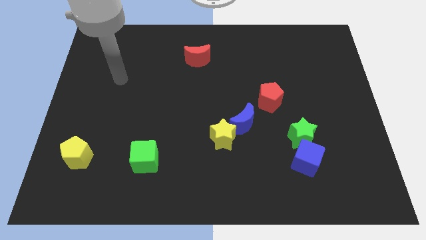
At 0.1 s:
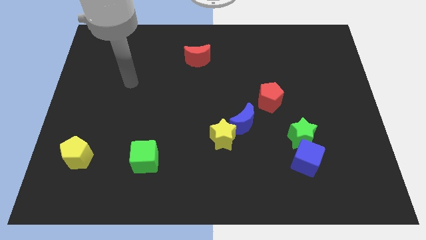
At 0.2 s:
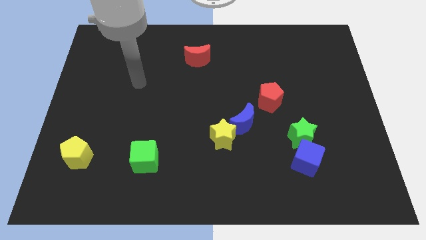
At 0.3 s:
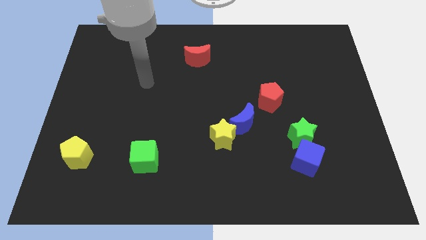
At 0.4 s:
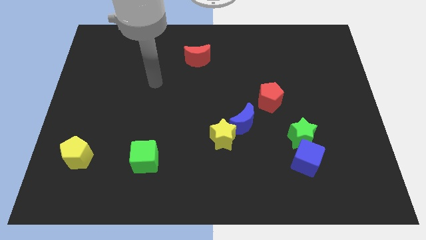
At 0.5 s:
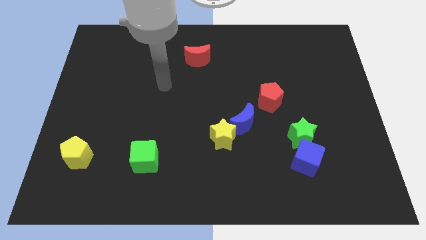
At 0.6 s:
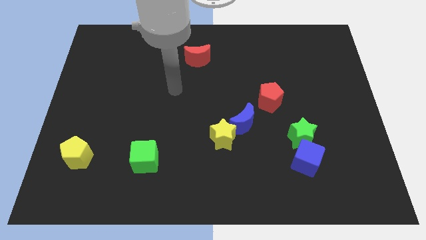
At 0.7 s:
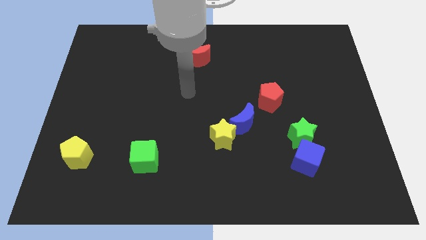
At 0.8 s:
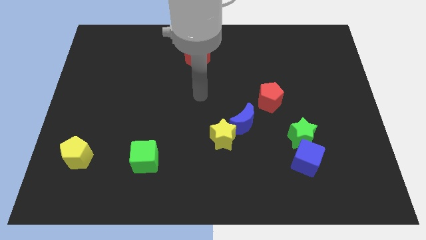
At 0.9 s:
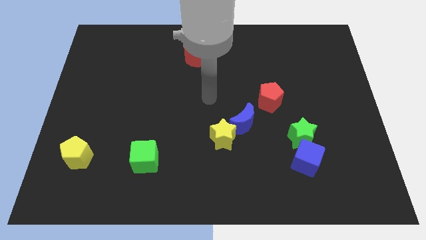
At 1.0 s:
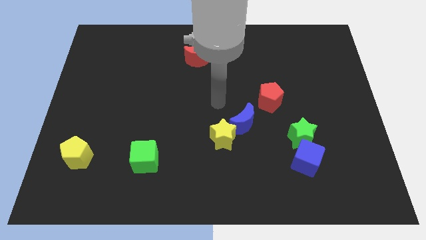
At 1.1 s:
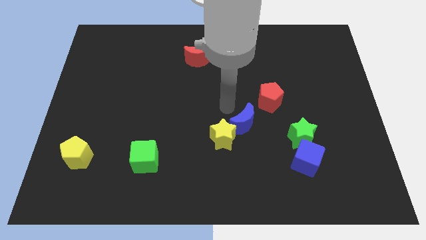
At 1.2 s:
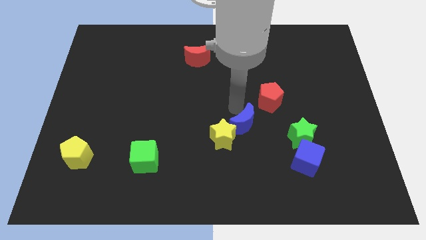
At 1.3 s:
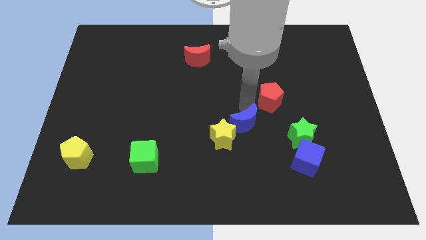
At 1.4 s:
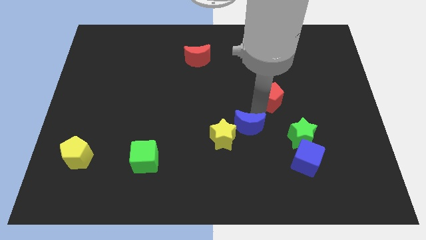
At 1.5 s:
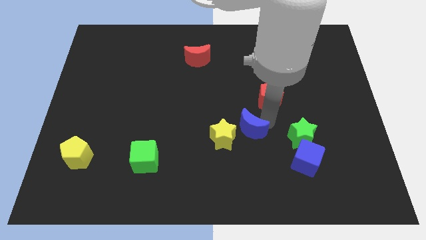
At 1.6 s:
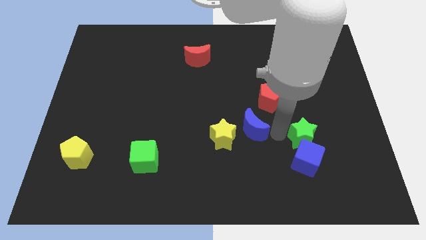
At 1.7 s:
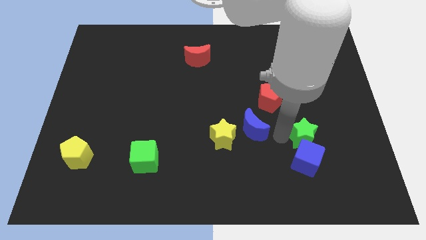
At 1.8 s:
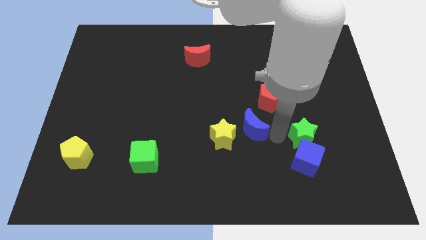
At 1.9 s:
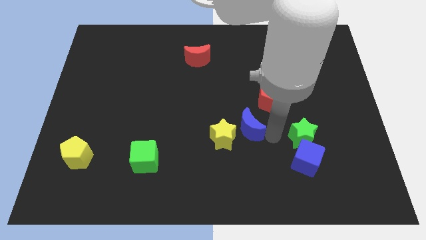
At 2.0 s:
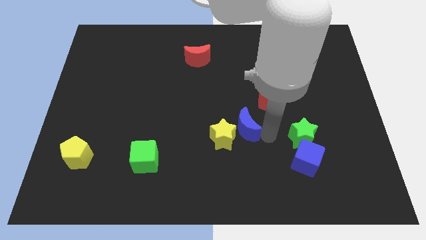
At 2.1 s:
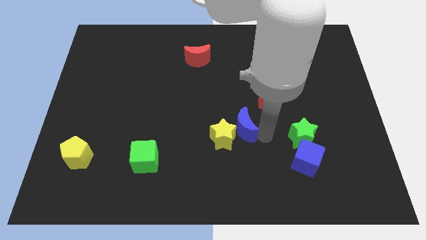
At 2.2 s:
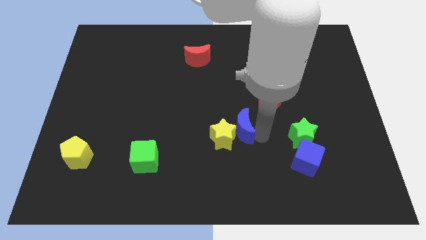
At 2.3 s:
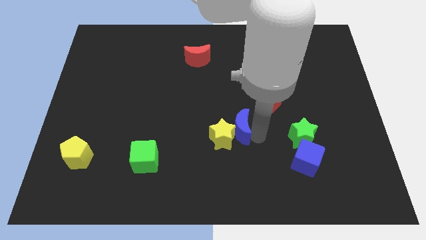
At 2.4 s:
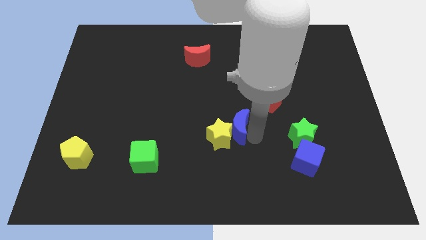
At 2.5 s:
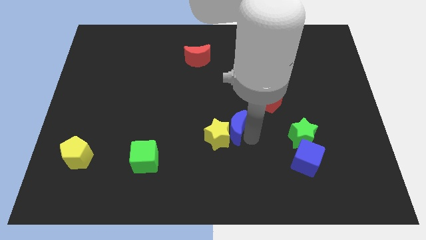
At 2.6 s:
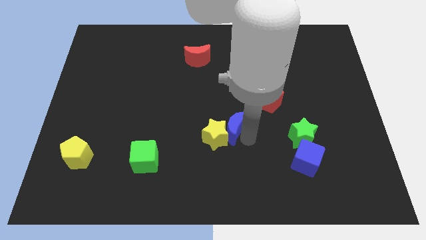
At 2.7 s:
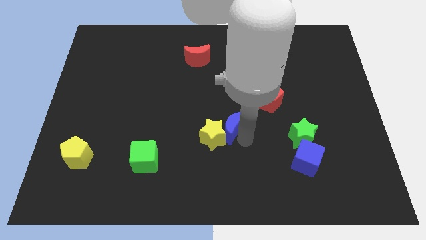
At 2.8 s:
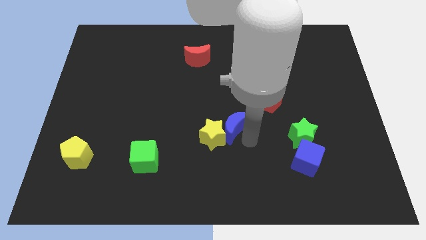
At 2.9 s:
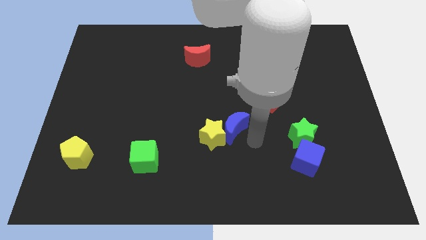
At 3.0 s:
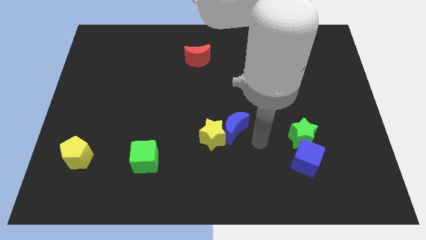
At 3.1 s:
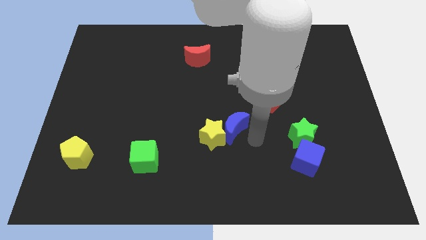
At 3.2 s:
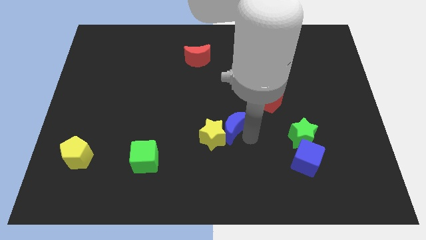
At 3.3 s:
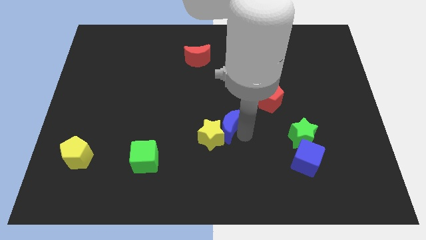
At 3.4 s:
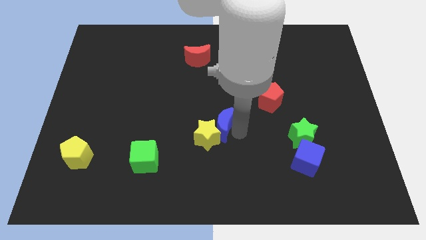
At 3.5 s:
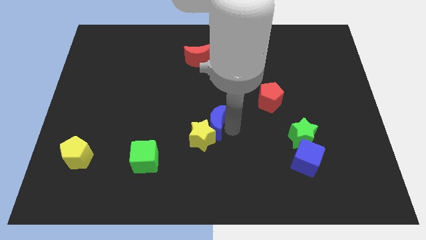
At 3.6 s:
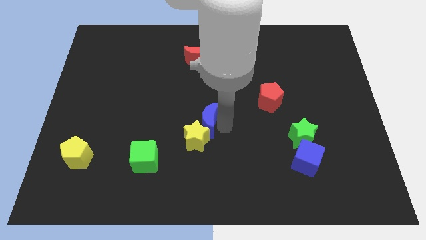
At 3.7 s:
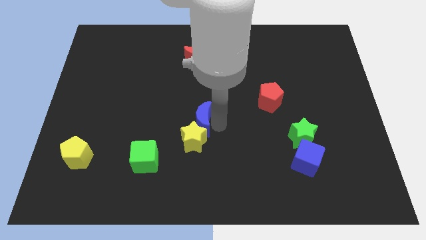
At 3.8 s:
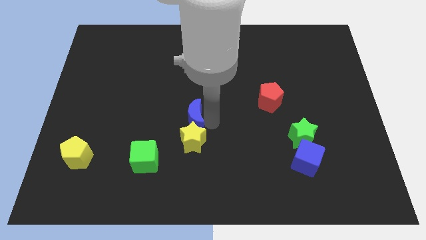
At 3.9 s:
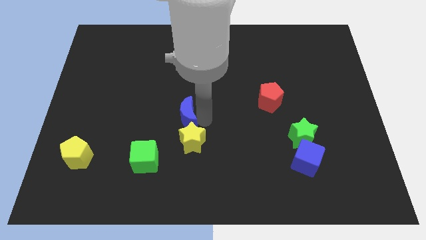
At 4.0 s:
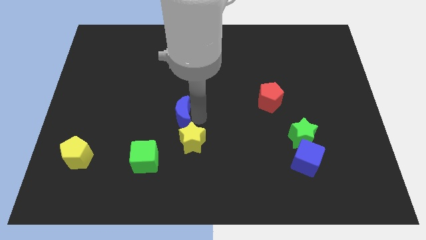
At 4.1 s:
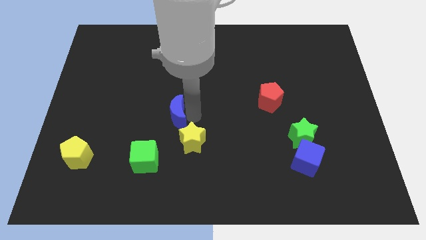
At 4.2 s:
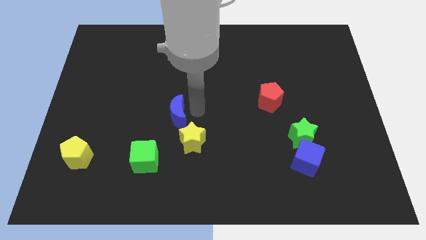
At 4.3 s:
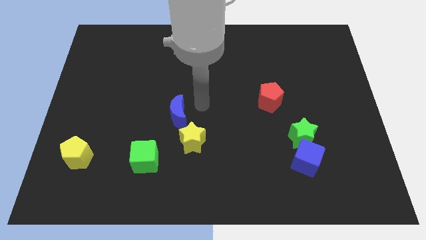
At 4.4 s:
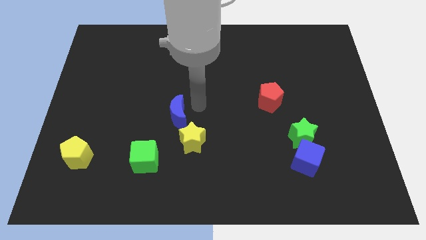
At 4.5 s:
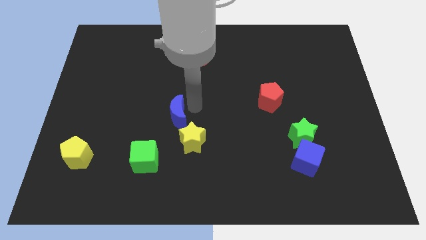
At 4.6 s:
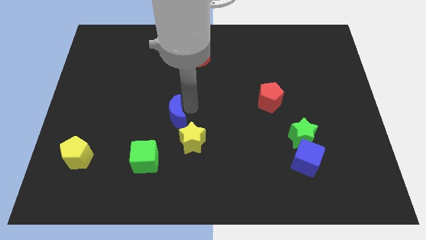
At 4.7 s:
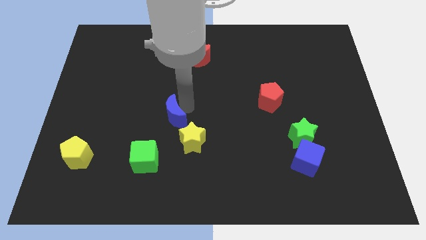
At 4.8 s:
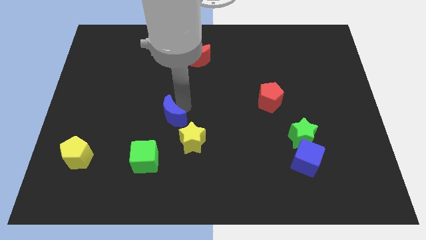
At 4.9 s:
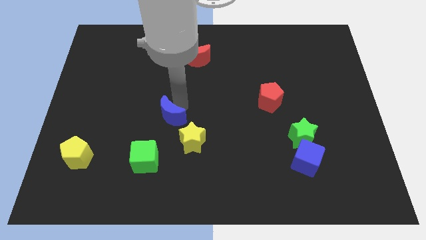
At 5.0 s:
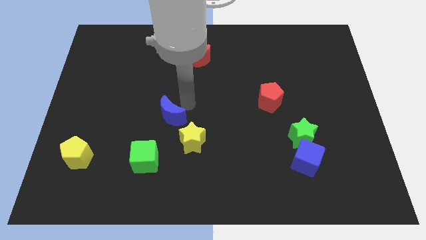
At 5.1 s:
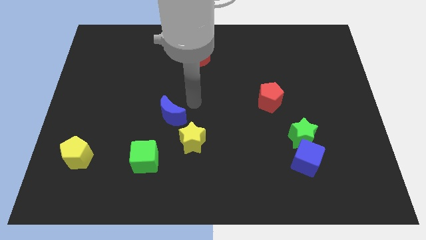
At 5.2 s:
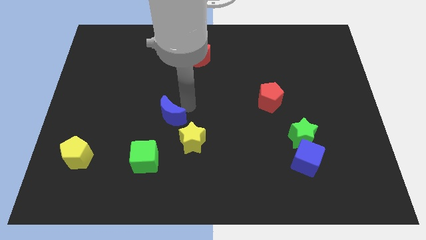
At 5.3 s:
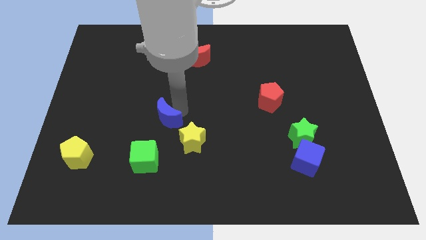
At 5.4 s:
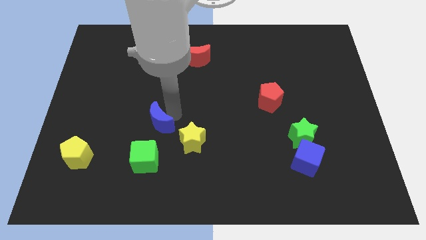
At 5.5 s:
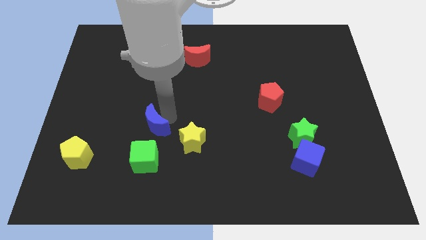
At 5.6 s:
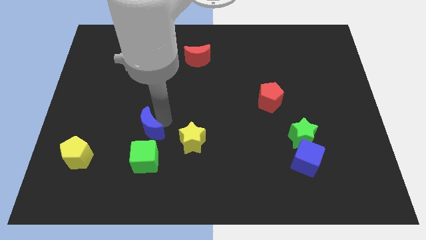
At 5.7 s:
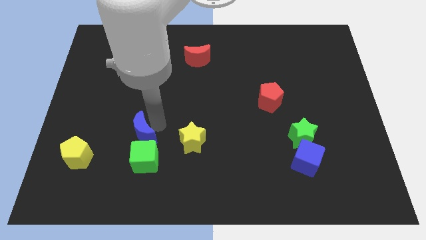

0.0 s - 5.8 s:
slide the blue moon to the top left of the green cube

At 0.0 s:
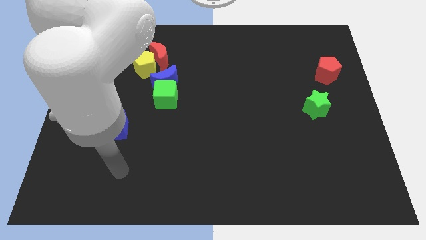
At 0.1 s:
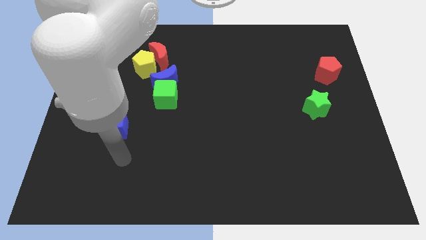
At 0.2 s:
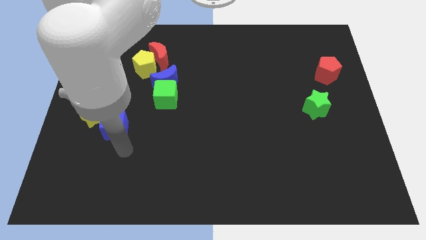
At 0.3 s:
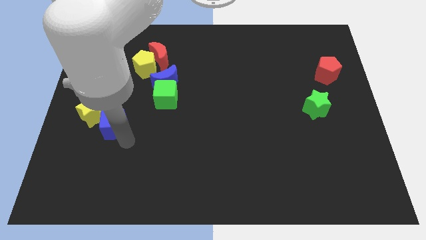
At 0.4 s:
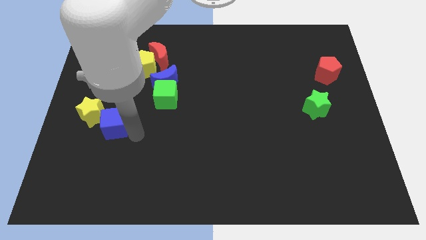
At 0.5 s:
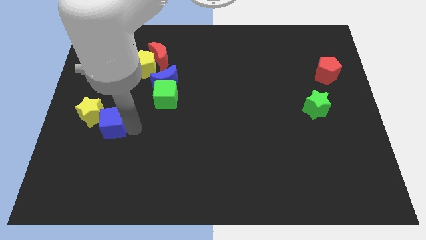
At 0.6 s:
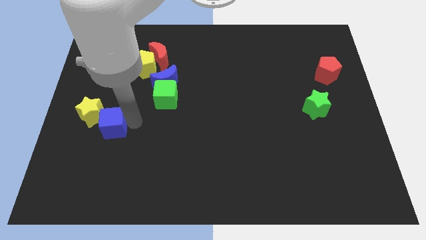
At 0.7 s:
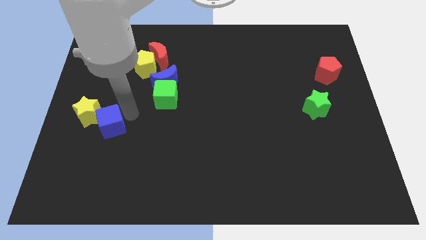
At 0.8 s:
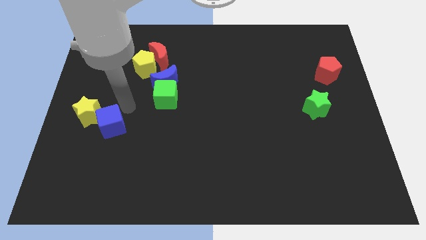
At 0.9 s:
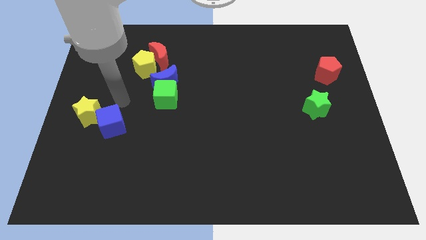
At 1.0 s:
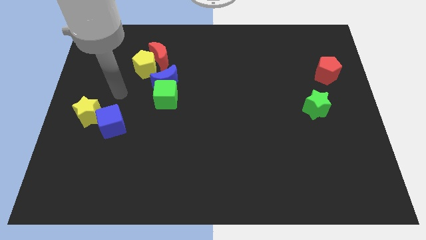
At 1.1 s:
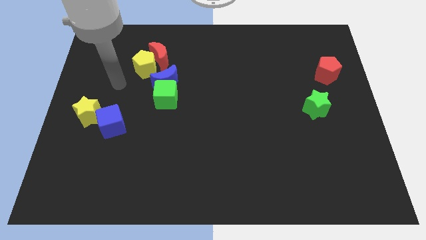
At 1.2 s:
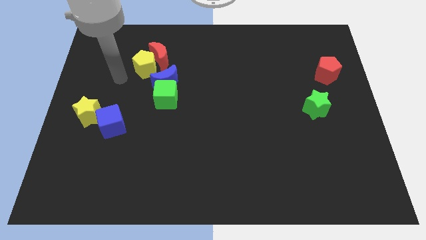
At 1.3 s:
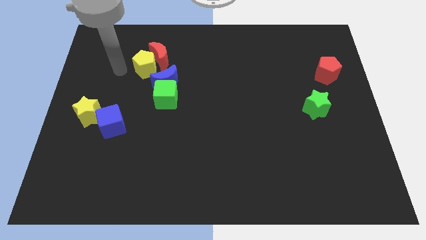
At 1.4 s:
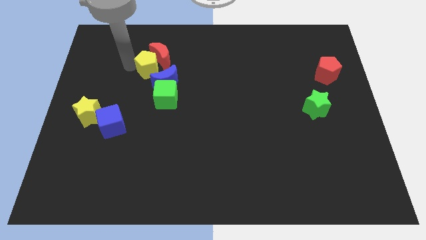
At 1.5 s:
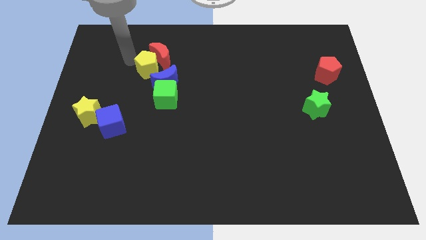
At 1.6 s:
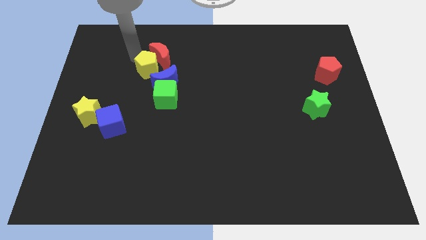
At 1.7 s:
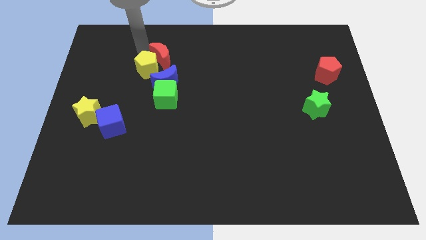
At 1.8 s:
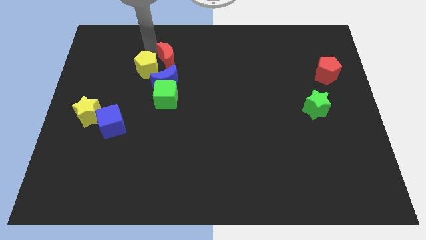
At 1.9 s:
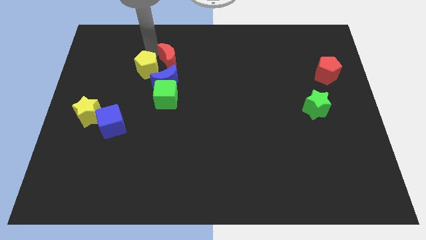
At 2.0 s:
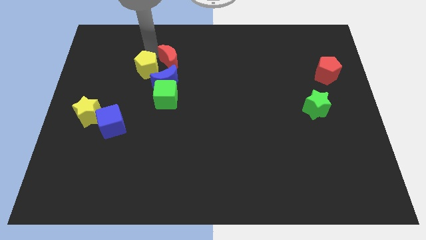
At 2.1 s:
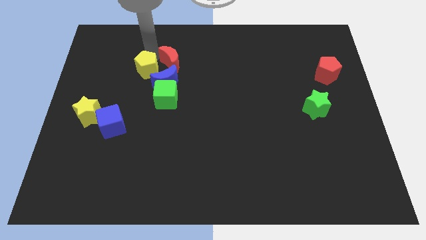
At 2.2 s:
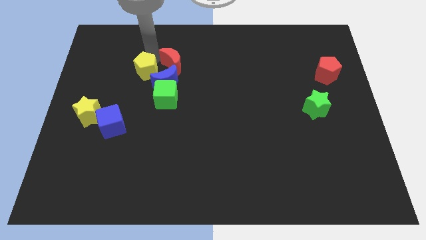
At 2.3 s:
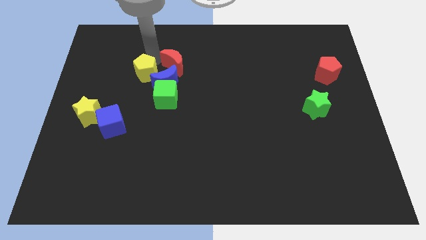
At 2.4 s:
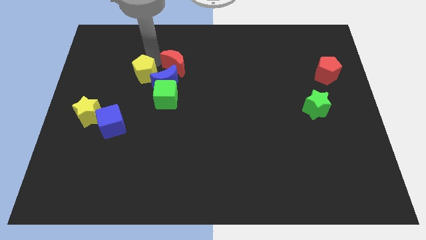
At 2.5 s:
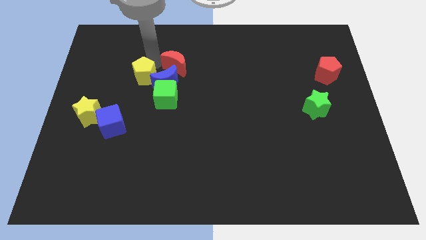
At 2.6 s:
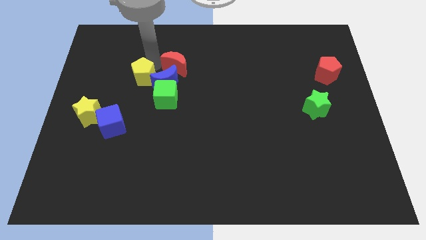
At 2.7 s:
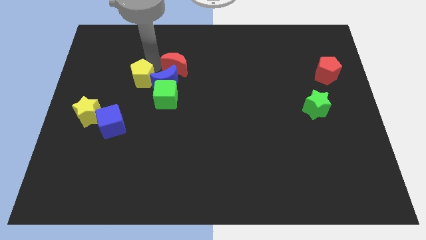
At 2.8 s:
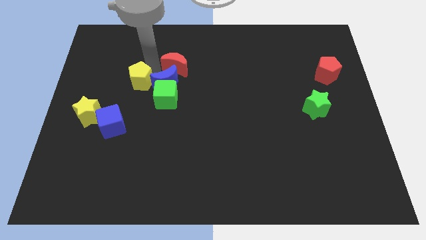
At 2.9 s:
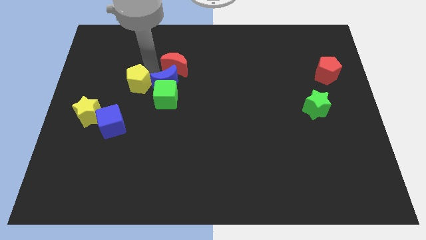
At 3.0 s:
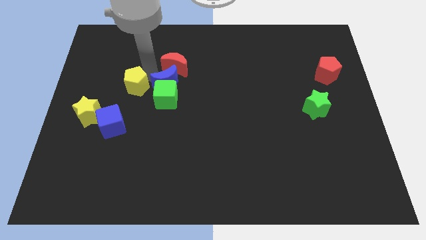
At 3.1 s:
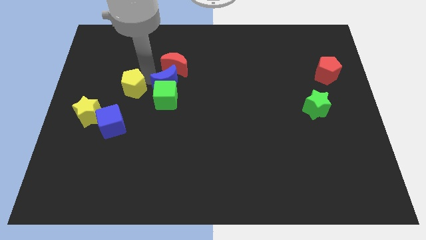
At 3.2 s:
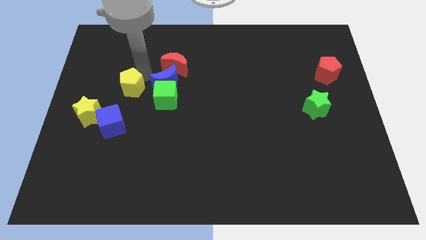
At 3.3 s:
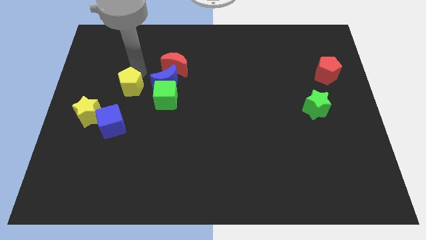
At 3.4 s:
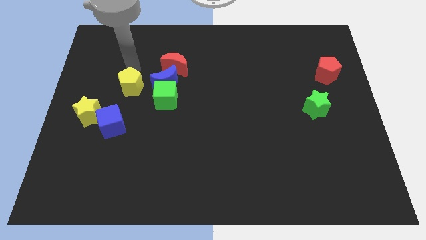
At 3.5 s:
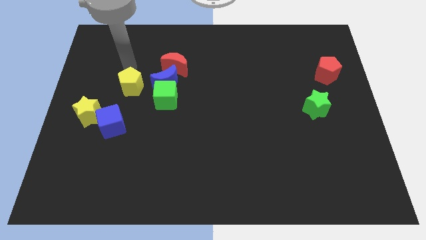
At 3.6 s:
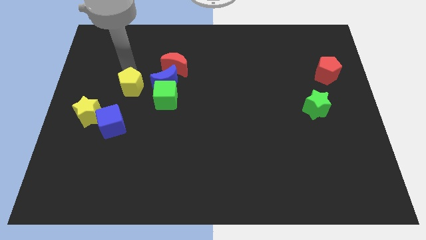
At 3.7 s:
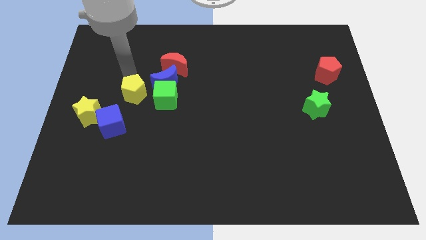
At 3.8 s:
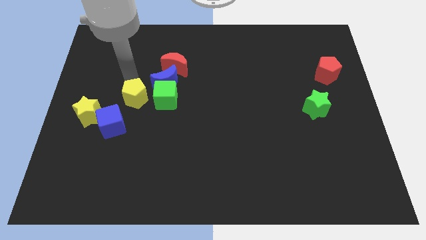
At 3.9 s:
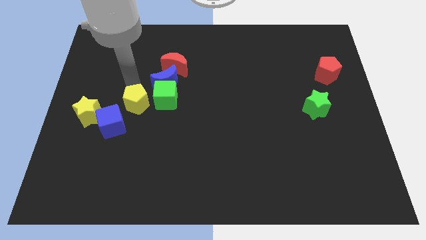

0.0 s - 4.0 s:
move the yellow pentagon just right of the yellow star
